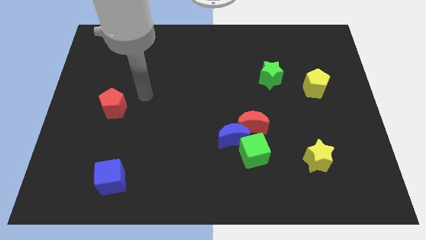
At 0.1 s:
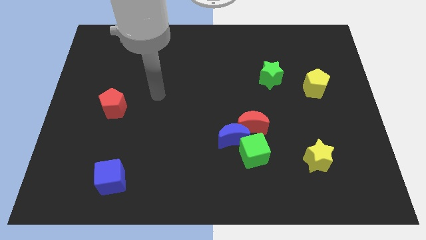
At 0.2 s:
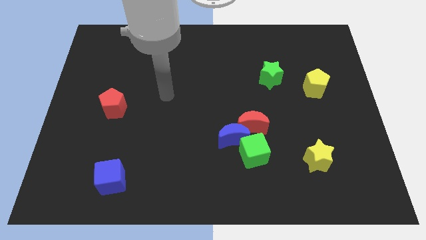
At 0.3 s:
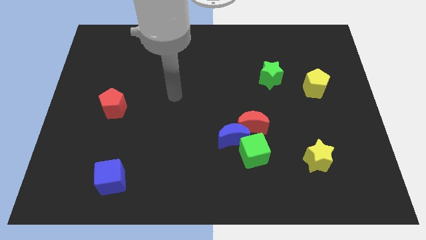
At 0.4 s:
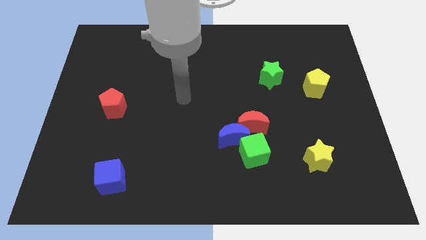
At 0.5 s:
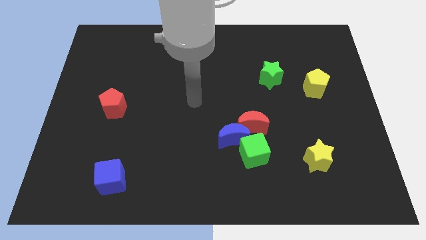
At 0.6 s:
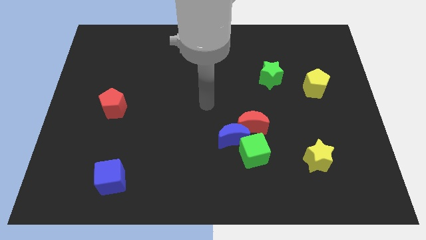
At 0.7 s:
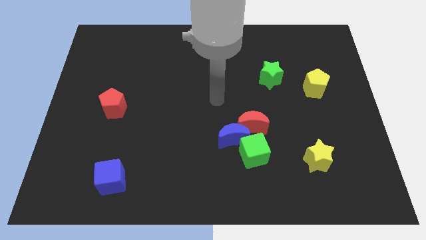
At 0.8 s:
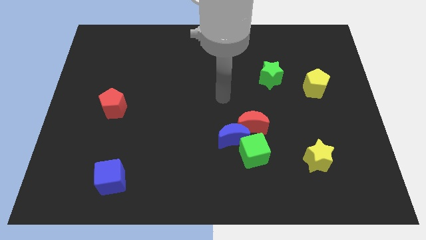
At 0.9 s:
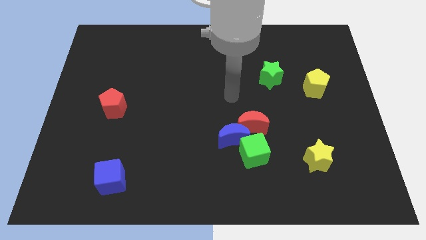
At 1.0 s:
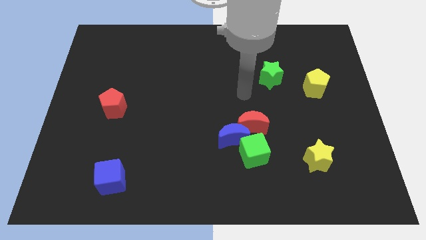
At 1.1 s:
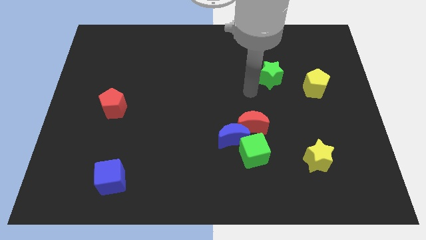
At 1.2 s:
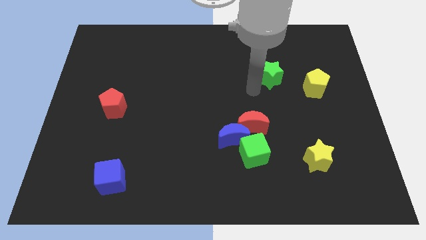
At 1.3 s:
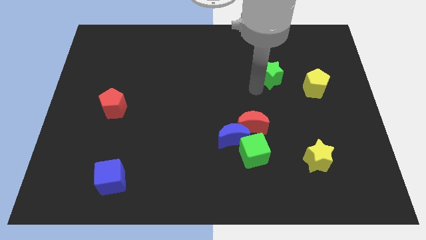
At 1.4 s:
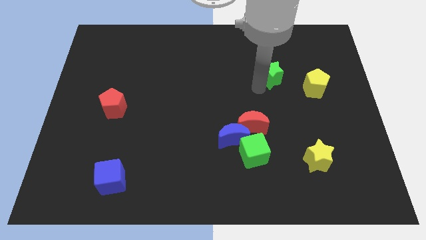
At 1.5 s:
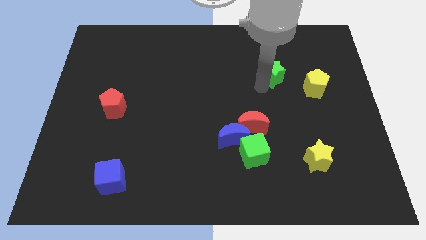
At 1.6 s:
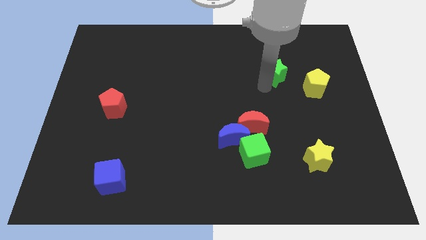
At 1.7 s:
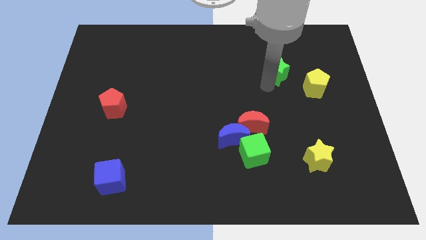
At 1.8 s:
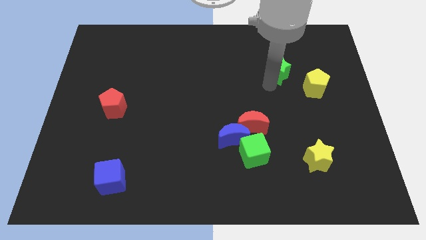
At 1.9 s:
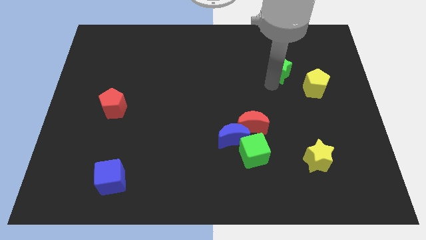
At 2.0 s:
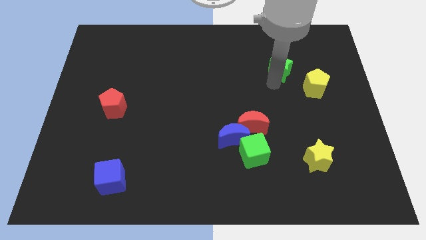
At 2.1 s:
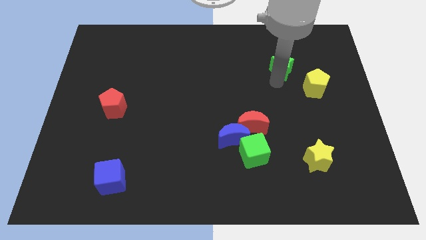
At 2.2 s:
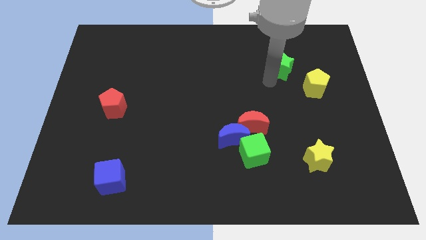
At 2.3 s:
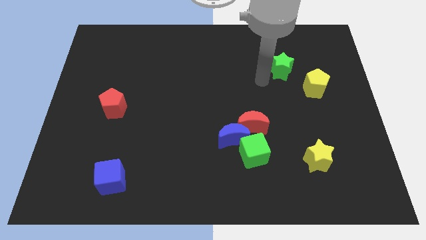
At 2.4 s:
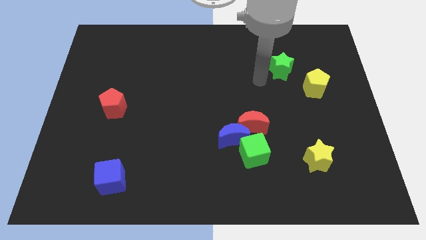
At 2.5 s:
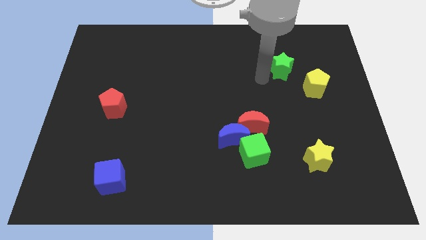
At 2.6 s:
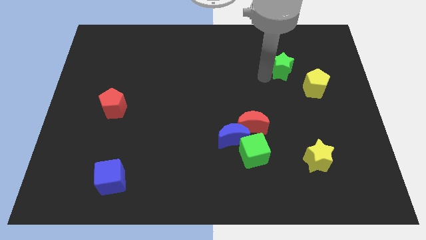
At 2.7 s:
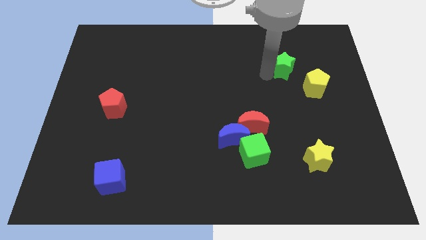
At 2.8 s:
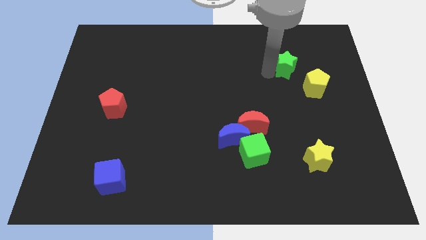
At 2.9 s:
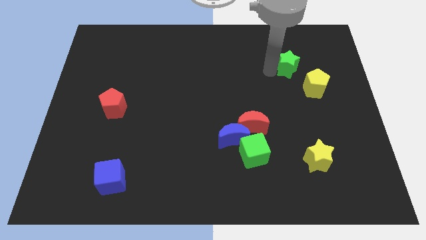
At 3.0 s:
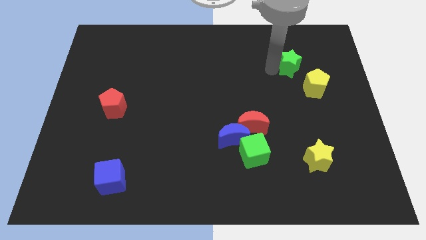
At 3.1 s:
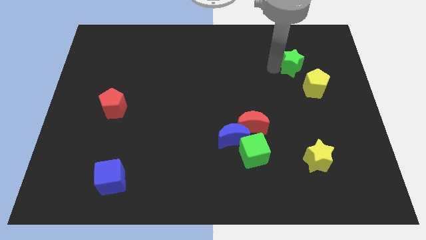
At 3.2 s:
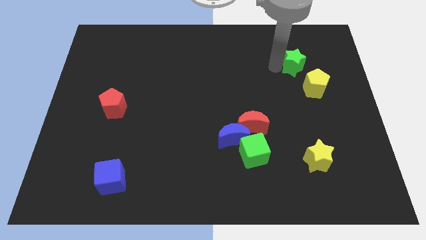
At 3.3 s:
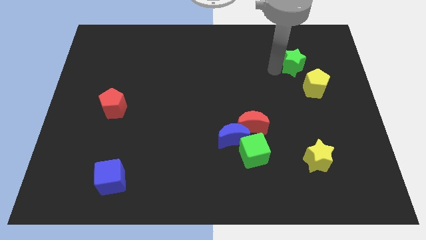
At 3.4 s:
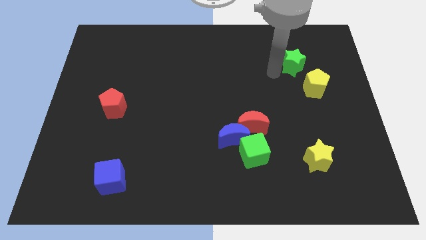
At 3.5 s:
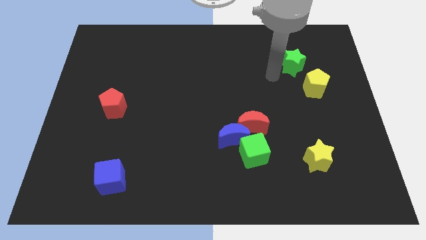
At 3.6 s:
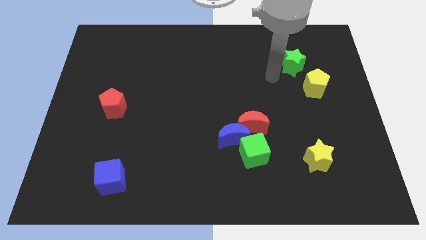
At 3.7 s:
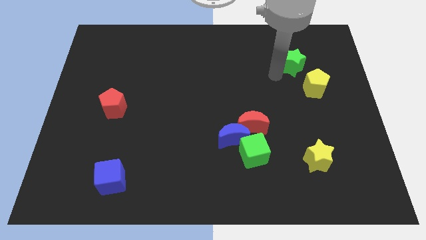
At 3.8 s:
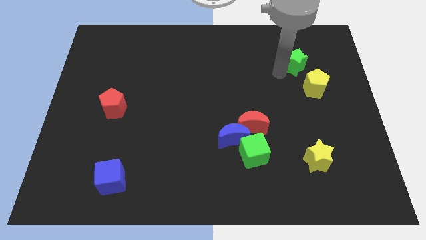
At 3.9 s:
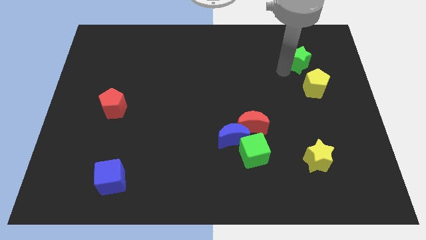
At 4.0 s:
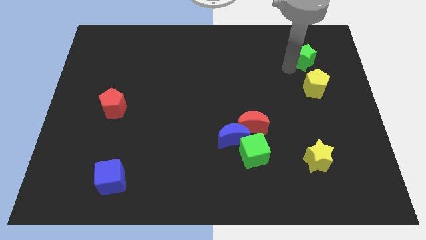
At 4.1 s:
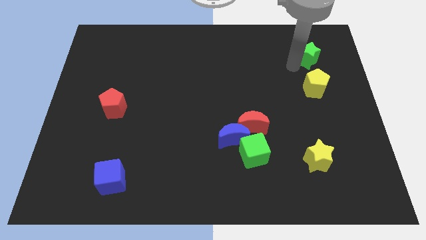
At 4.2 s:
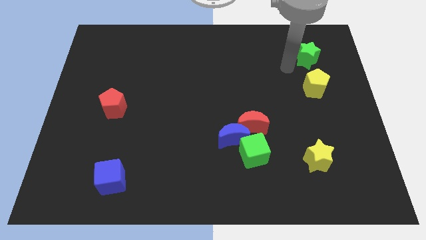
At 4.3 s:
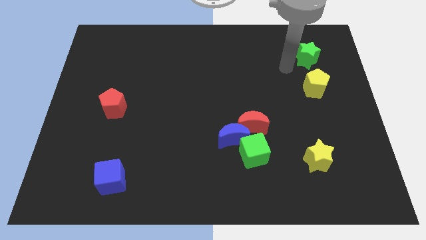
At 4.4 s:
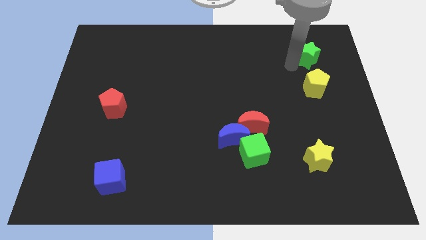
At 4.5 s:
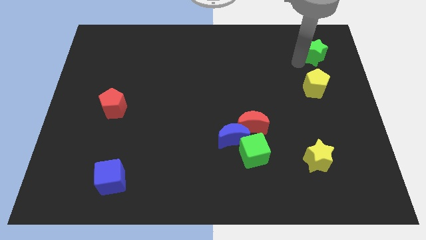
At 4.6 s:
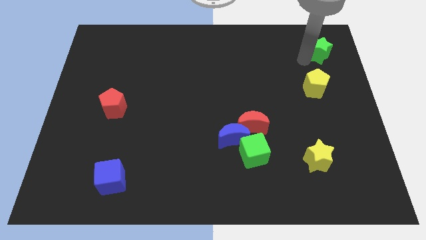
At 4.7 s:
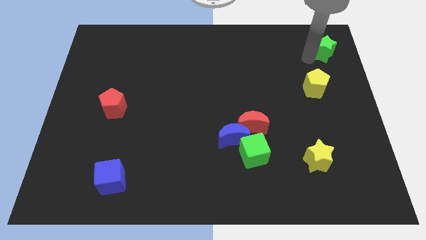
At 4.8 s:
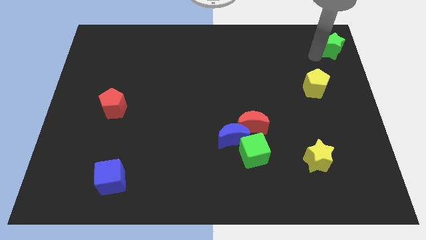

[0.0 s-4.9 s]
slide the green star to the top right corner

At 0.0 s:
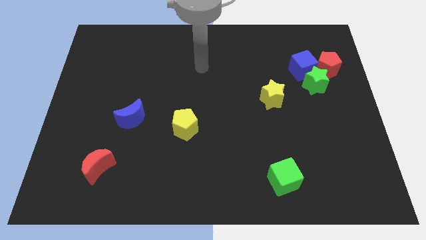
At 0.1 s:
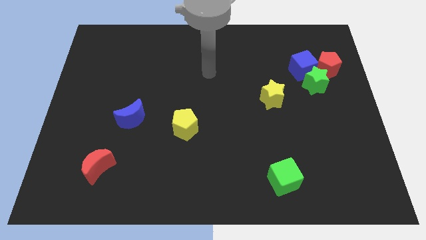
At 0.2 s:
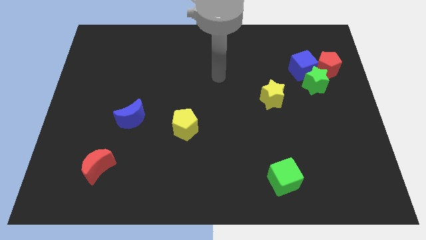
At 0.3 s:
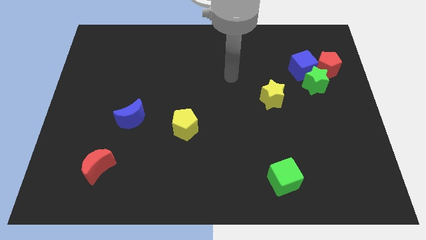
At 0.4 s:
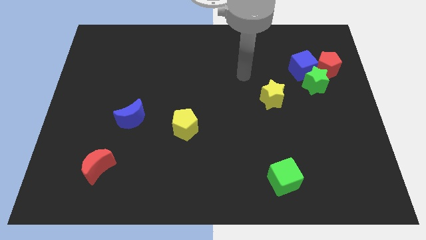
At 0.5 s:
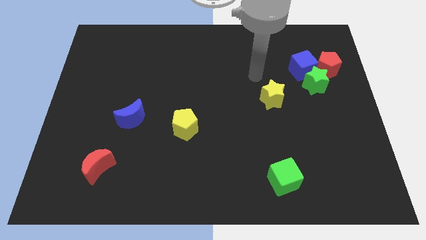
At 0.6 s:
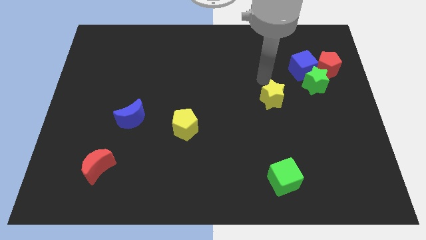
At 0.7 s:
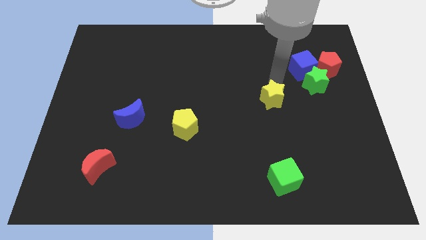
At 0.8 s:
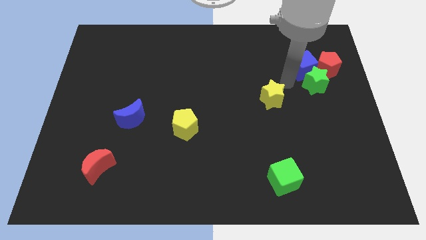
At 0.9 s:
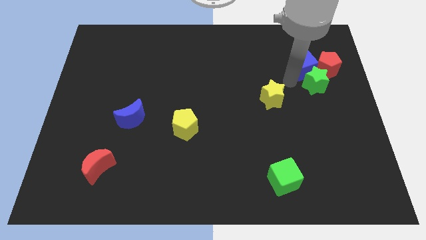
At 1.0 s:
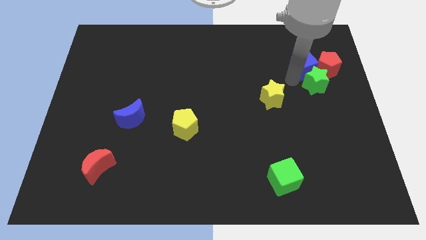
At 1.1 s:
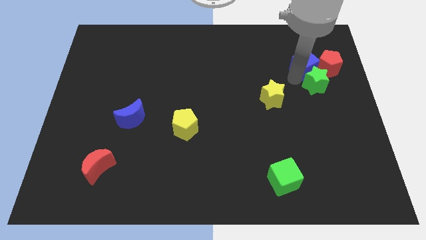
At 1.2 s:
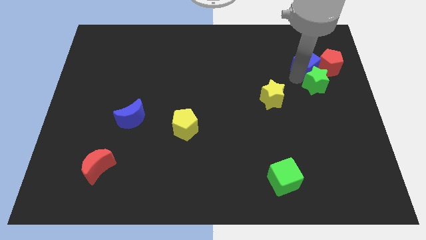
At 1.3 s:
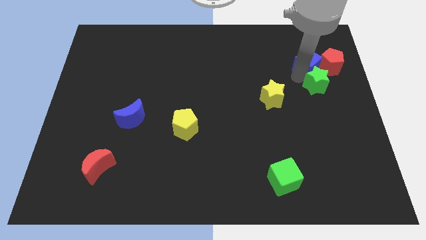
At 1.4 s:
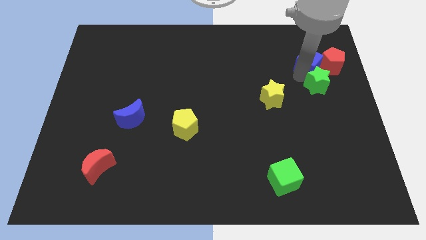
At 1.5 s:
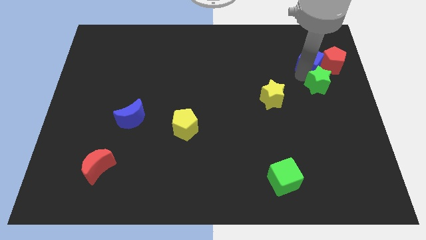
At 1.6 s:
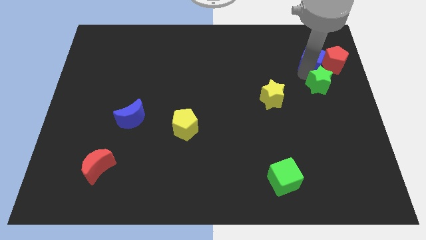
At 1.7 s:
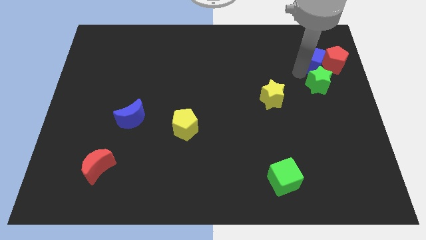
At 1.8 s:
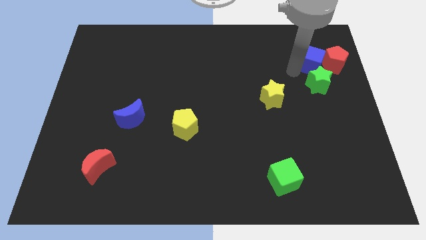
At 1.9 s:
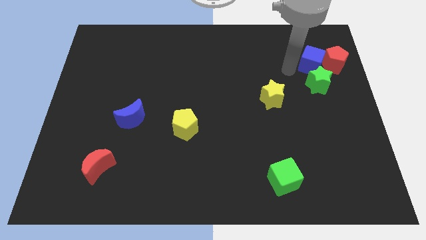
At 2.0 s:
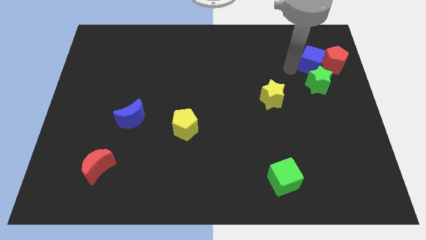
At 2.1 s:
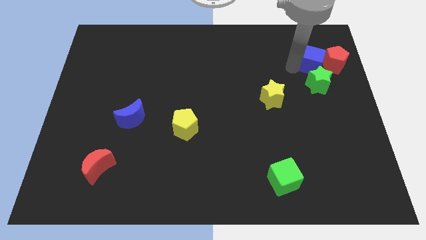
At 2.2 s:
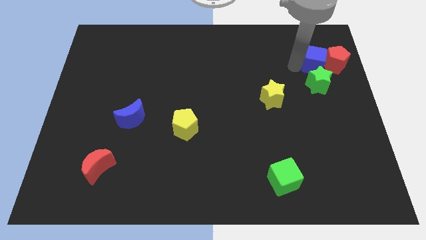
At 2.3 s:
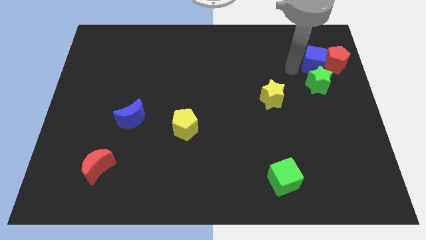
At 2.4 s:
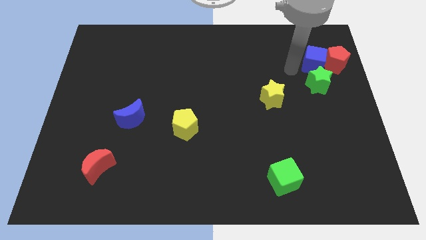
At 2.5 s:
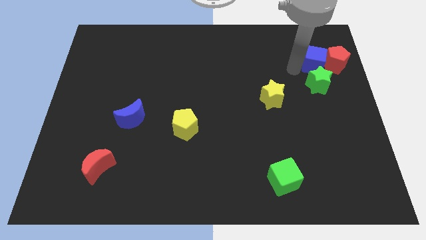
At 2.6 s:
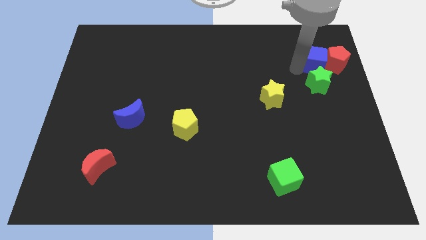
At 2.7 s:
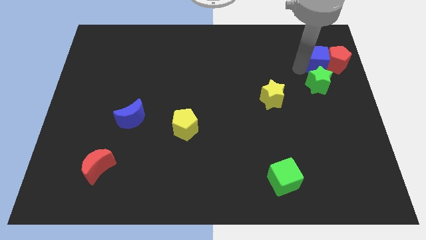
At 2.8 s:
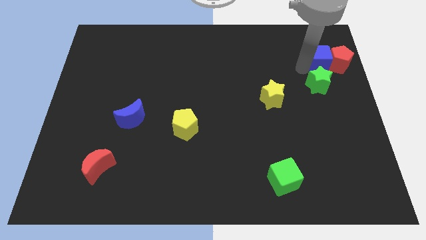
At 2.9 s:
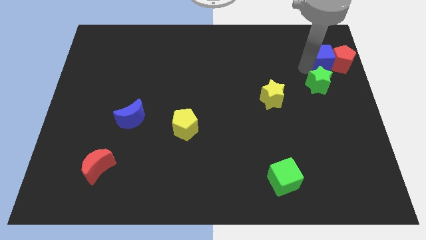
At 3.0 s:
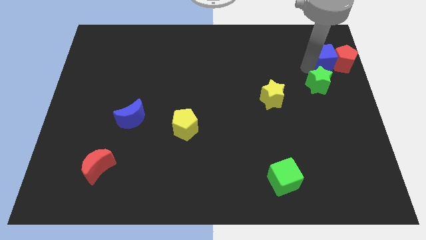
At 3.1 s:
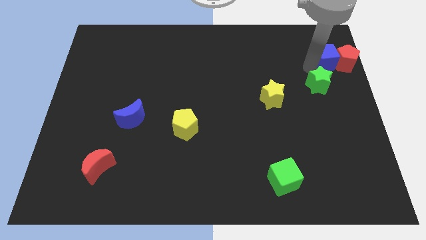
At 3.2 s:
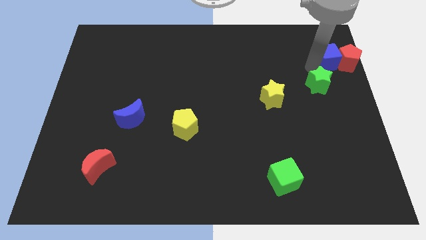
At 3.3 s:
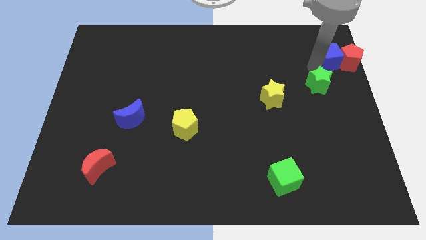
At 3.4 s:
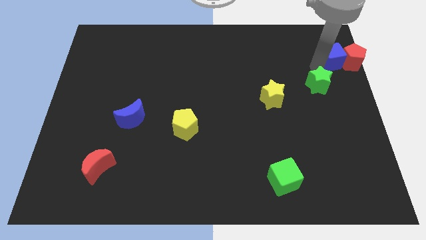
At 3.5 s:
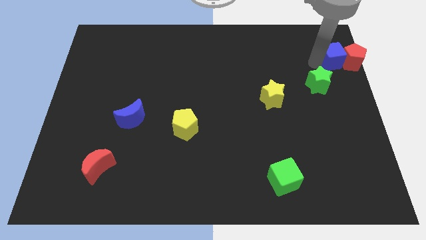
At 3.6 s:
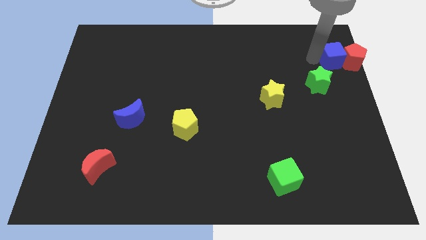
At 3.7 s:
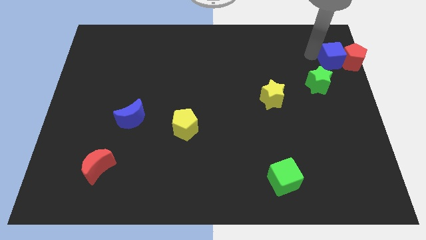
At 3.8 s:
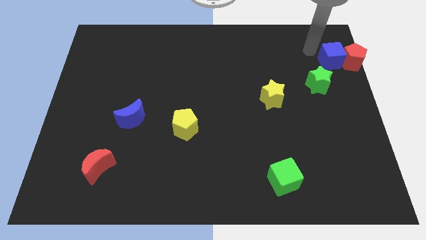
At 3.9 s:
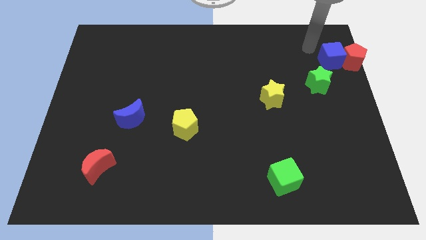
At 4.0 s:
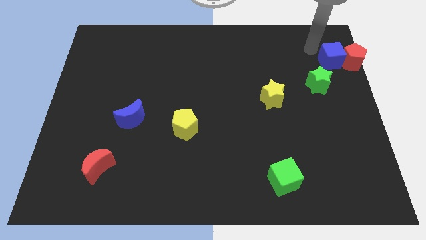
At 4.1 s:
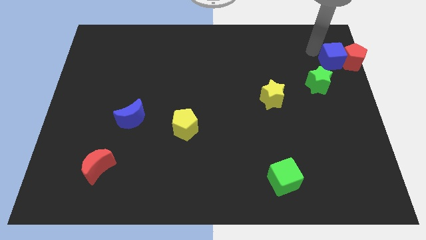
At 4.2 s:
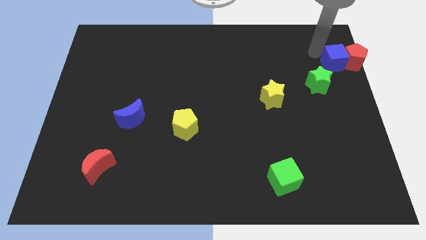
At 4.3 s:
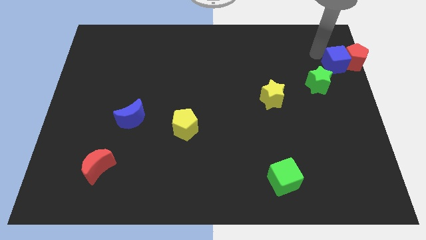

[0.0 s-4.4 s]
move the blue cube to the right side
